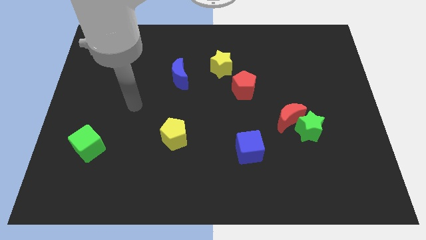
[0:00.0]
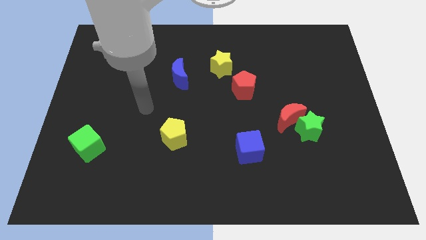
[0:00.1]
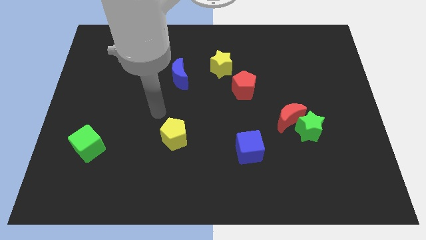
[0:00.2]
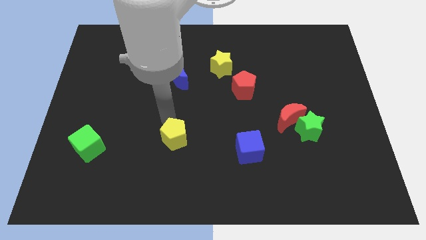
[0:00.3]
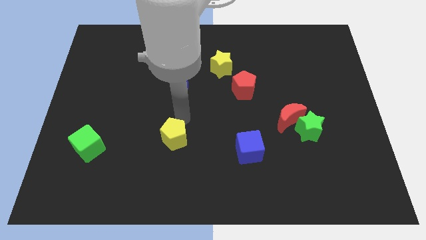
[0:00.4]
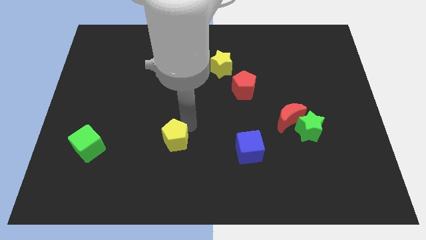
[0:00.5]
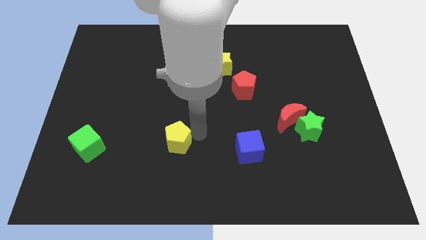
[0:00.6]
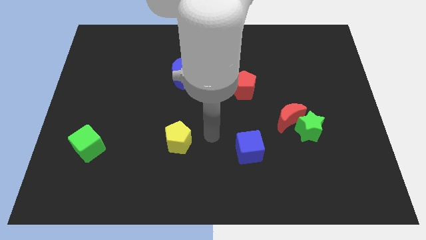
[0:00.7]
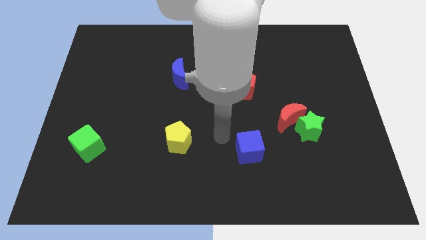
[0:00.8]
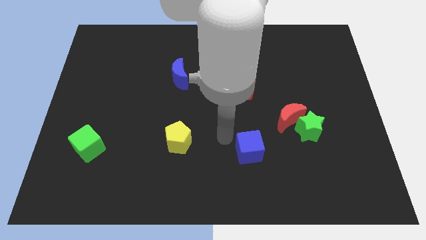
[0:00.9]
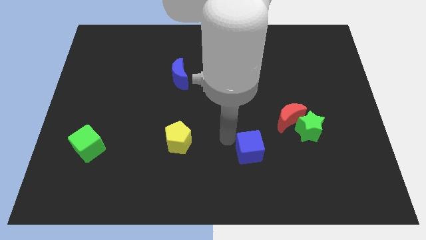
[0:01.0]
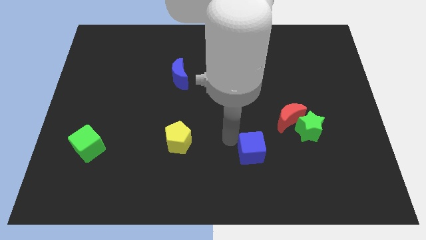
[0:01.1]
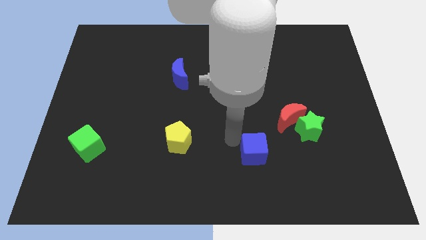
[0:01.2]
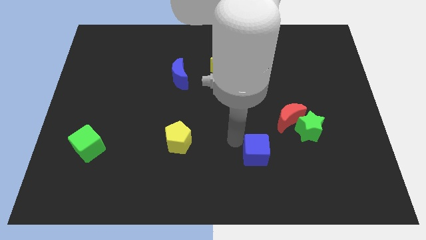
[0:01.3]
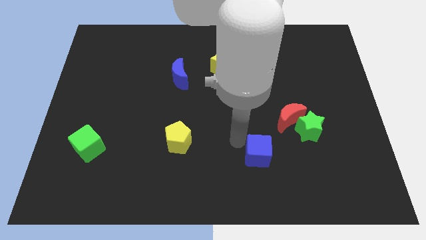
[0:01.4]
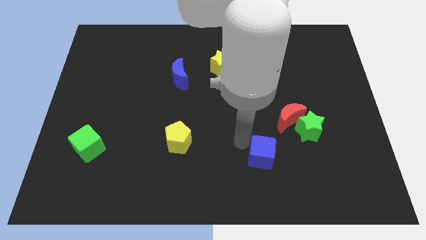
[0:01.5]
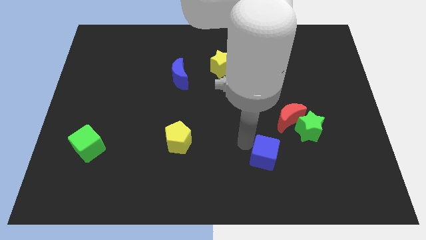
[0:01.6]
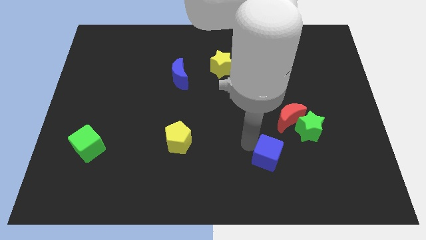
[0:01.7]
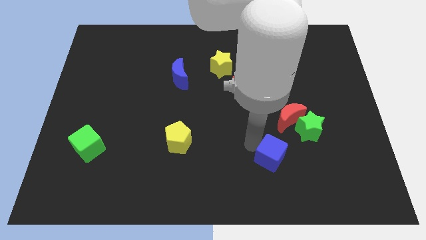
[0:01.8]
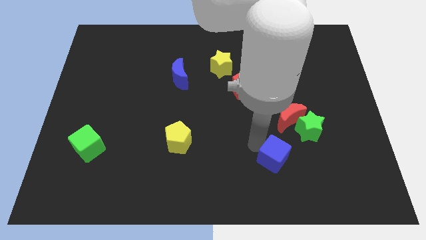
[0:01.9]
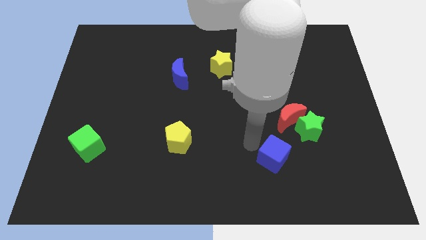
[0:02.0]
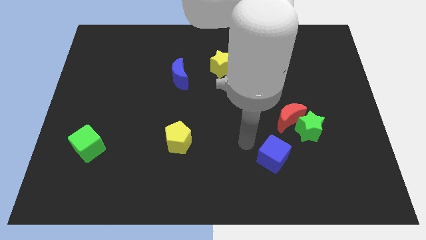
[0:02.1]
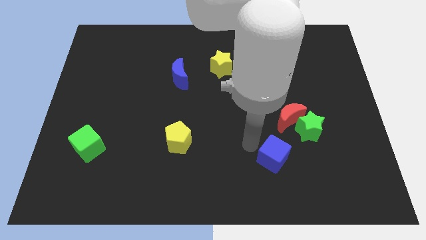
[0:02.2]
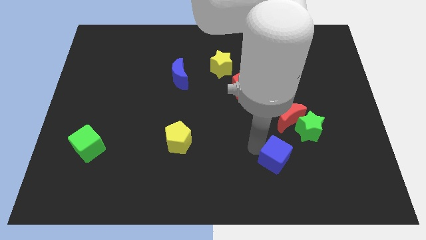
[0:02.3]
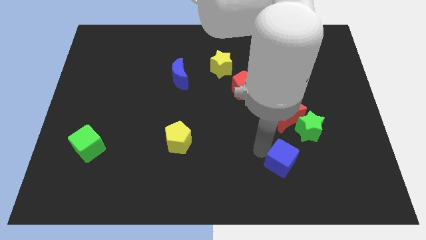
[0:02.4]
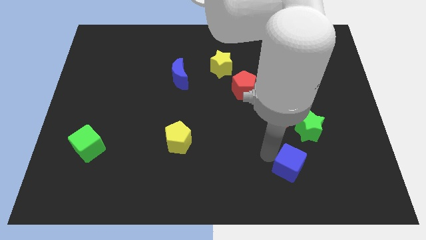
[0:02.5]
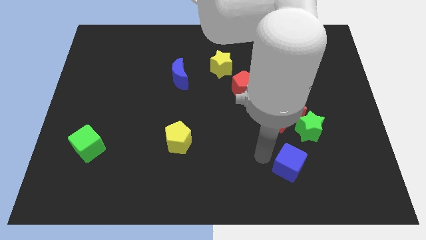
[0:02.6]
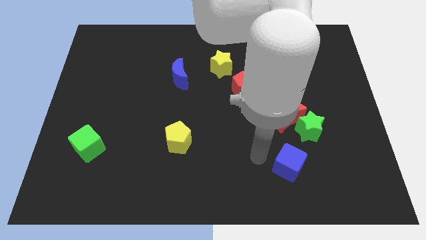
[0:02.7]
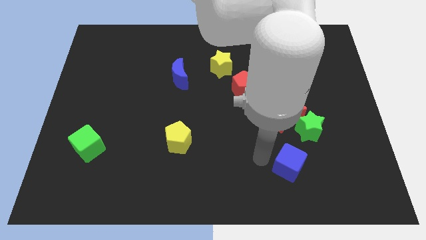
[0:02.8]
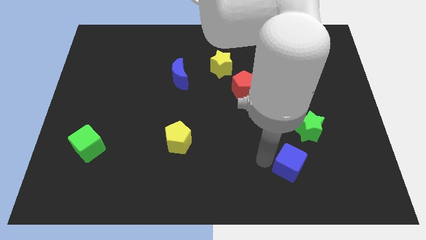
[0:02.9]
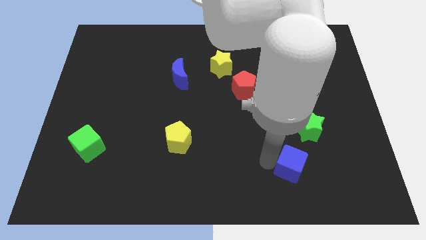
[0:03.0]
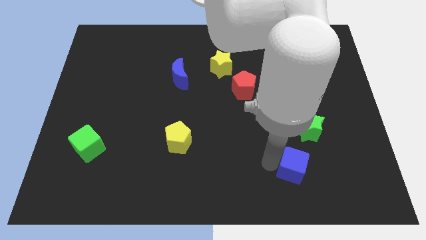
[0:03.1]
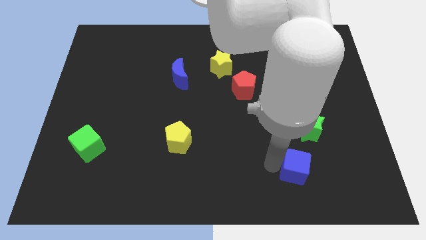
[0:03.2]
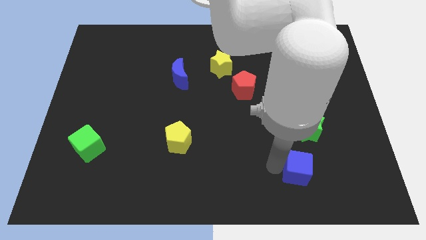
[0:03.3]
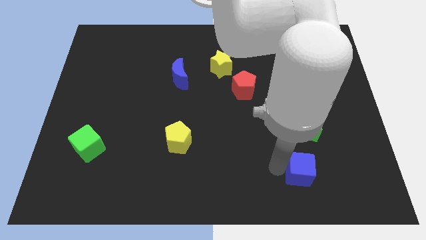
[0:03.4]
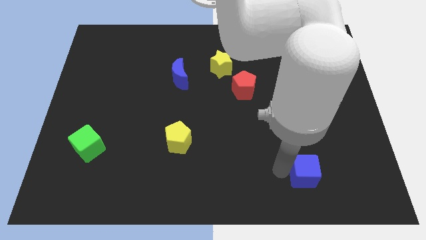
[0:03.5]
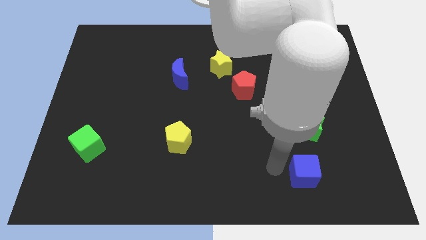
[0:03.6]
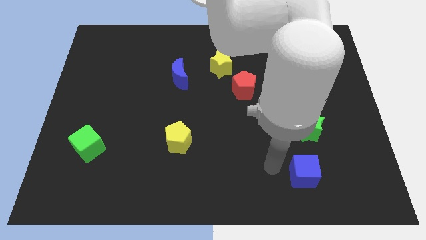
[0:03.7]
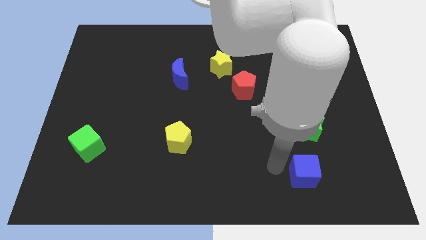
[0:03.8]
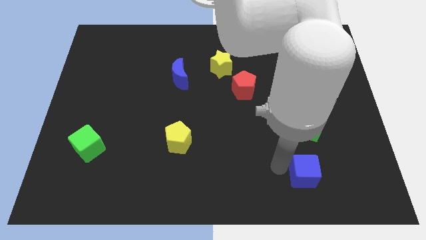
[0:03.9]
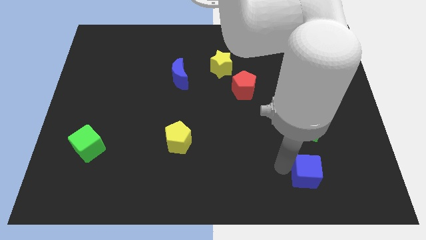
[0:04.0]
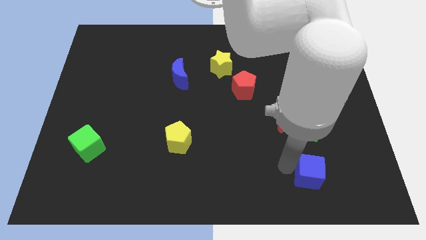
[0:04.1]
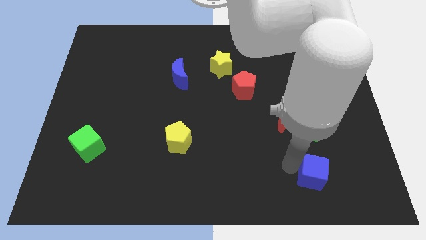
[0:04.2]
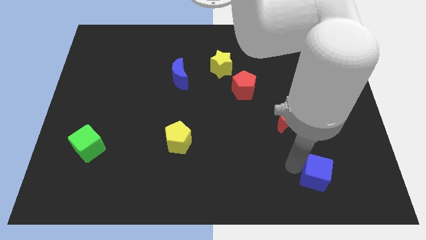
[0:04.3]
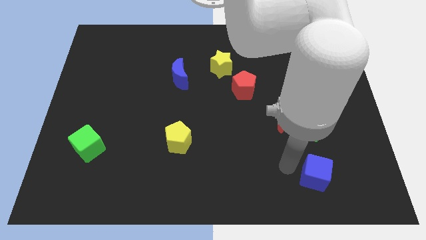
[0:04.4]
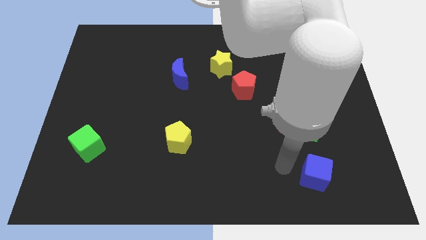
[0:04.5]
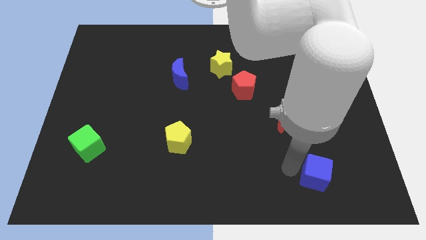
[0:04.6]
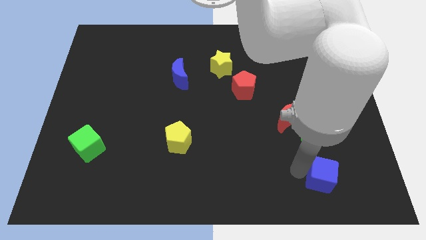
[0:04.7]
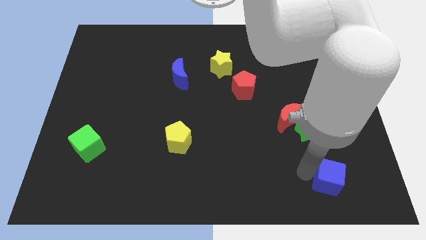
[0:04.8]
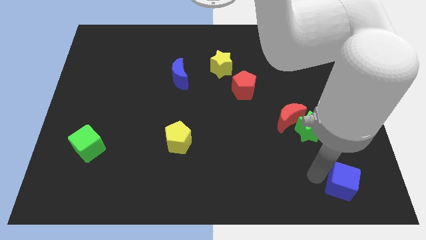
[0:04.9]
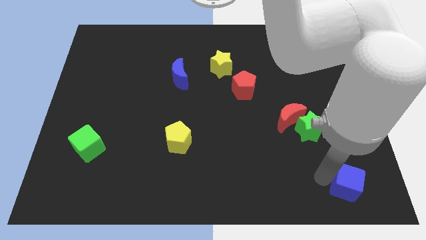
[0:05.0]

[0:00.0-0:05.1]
slide the blue cube to the bottom right corner

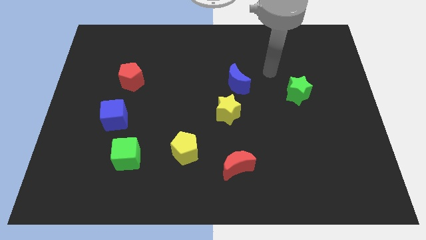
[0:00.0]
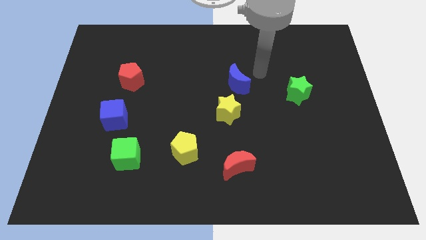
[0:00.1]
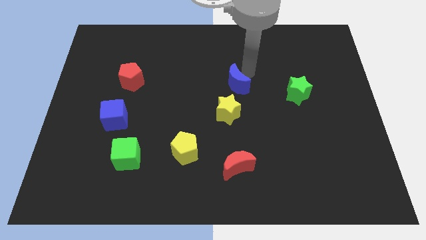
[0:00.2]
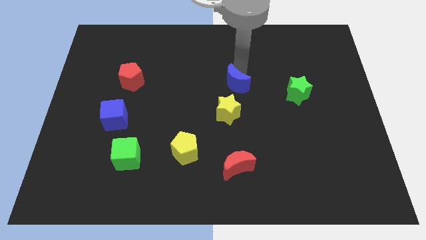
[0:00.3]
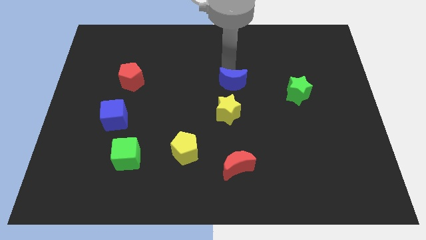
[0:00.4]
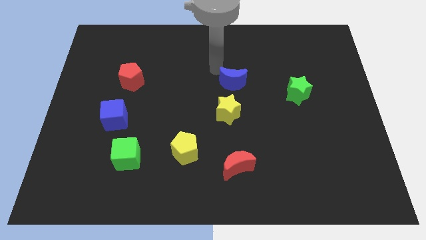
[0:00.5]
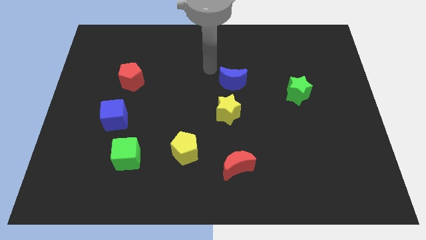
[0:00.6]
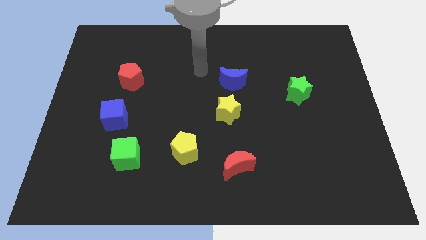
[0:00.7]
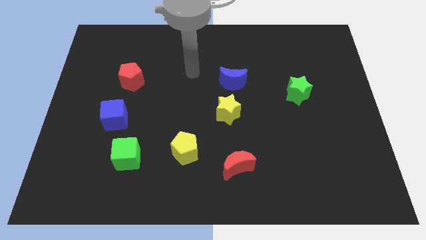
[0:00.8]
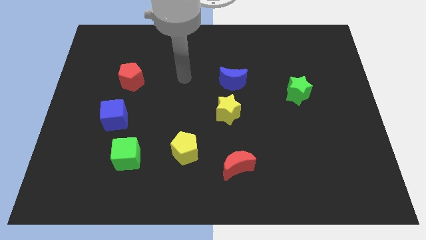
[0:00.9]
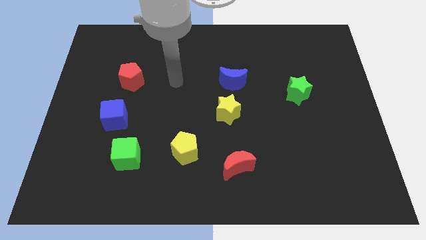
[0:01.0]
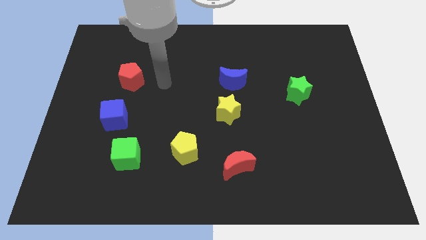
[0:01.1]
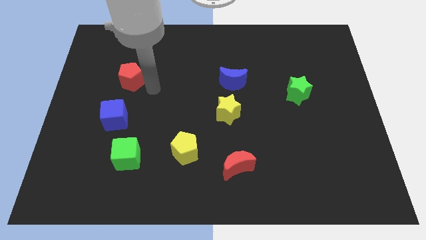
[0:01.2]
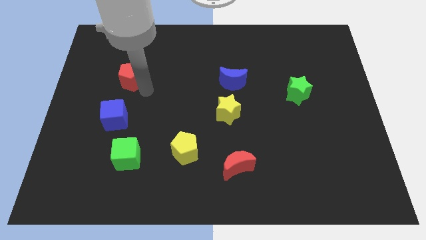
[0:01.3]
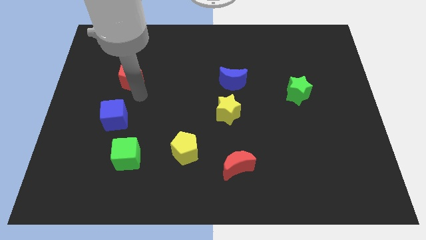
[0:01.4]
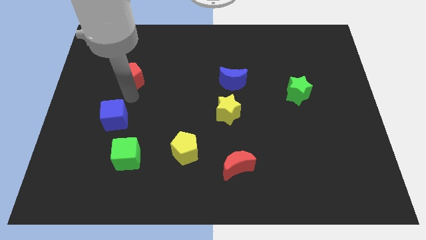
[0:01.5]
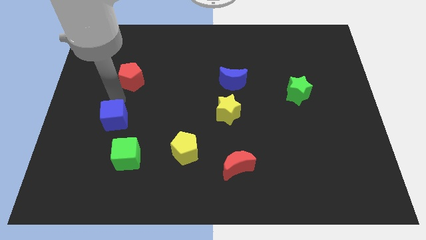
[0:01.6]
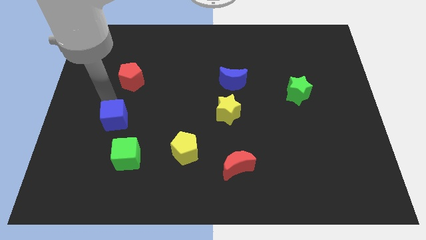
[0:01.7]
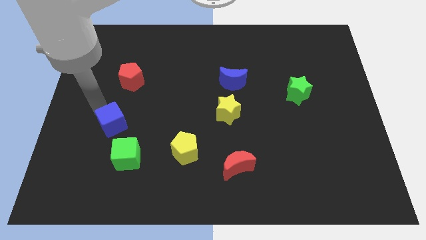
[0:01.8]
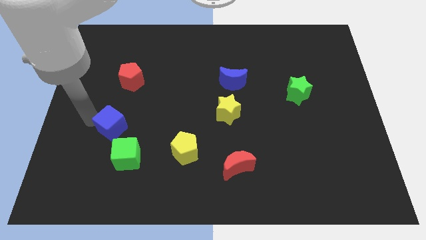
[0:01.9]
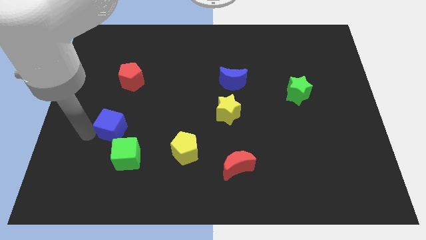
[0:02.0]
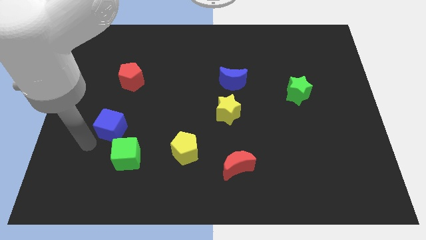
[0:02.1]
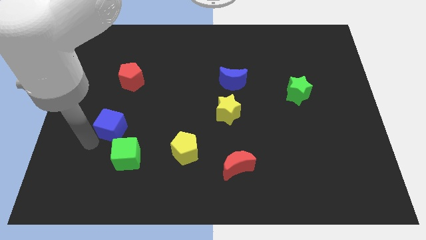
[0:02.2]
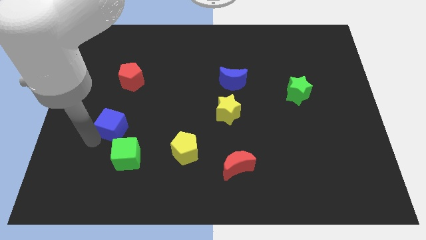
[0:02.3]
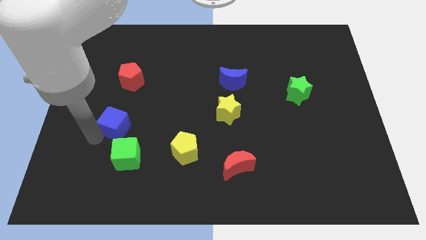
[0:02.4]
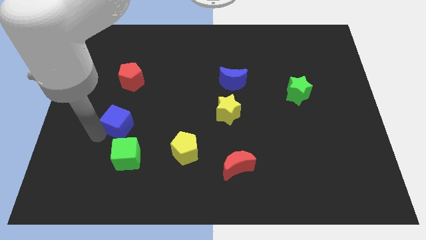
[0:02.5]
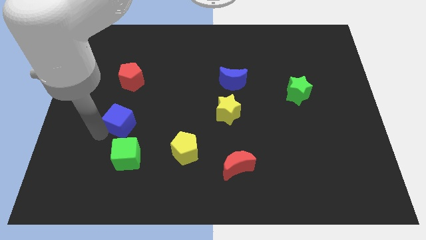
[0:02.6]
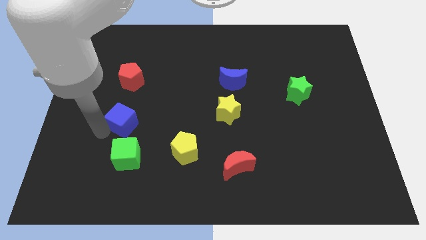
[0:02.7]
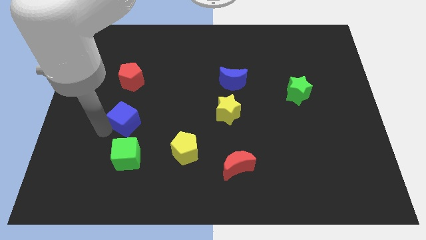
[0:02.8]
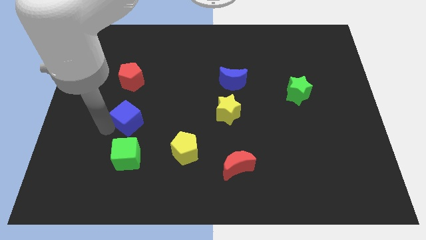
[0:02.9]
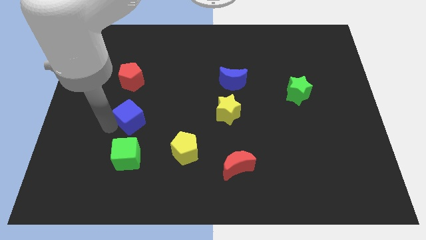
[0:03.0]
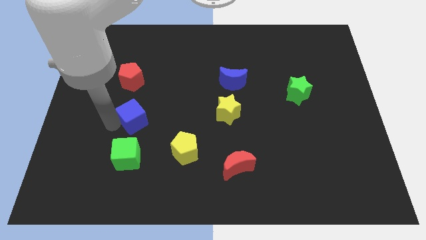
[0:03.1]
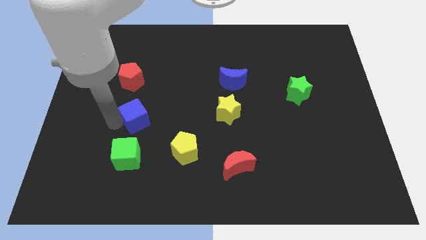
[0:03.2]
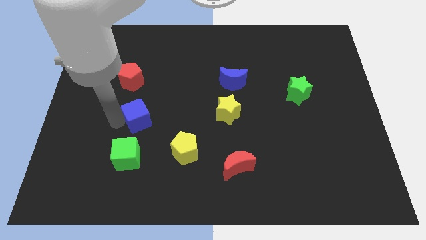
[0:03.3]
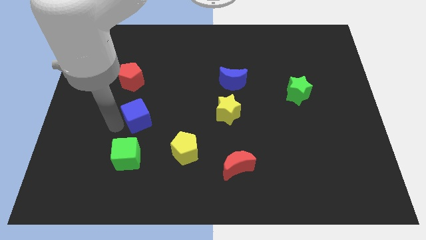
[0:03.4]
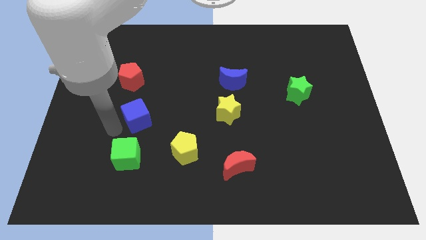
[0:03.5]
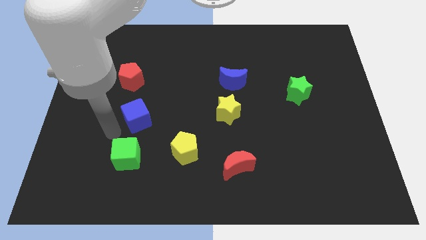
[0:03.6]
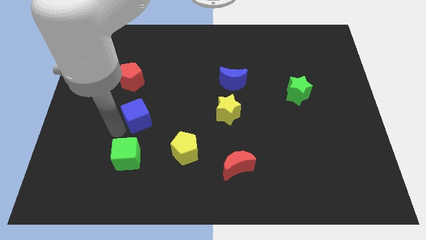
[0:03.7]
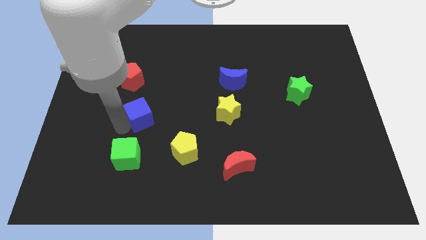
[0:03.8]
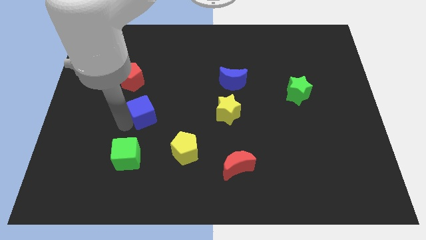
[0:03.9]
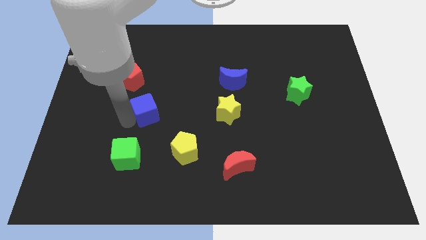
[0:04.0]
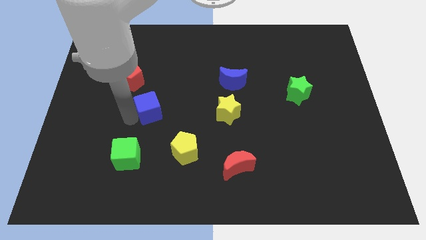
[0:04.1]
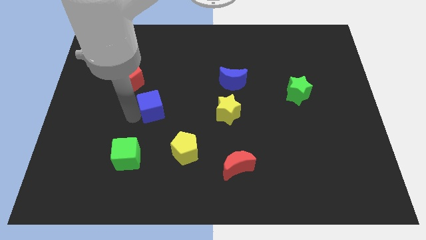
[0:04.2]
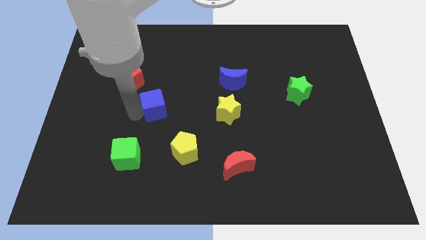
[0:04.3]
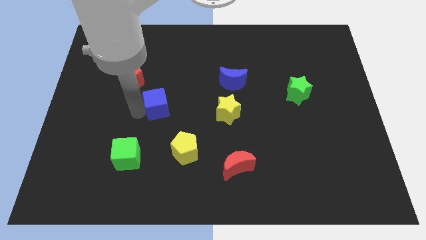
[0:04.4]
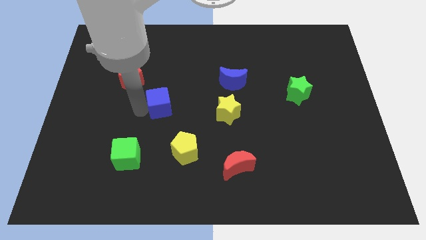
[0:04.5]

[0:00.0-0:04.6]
put the blue cube to the middle of the board
